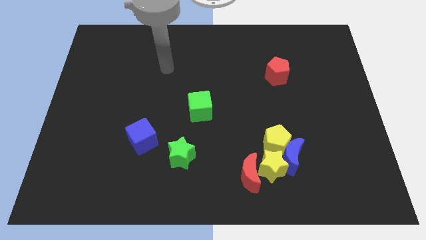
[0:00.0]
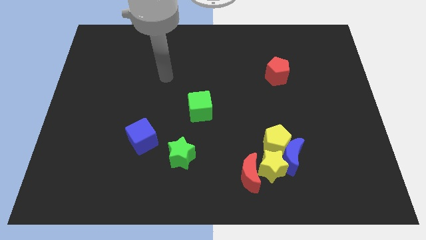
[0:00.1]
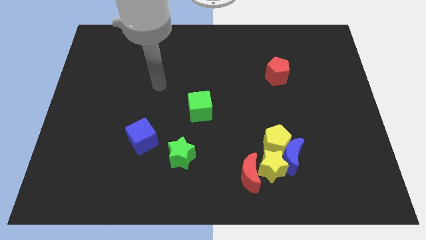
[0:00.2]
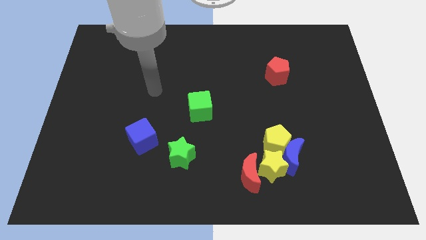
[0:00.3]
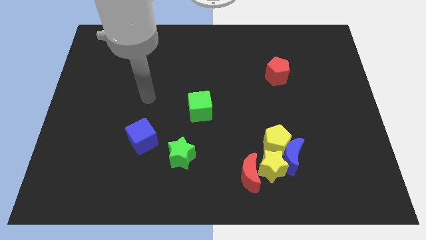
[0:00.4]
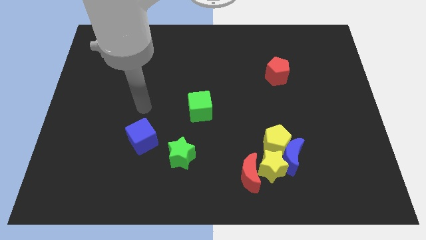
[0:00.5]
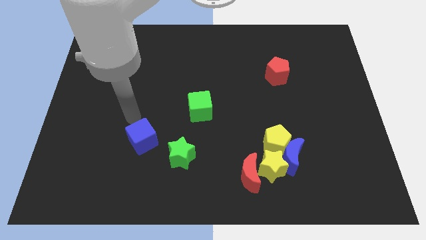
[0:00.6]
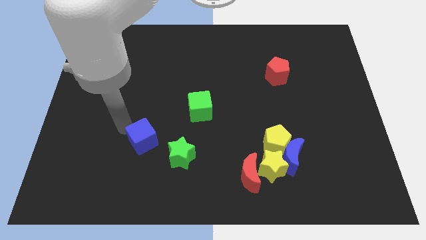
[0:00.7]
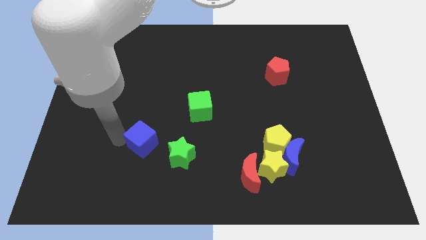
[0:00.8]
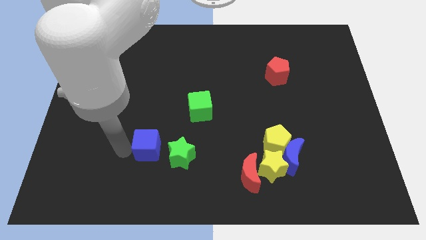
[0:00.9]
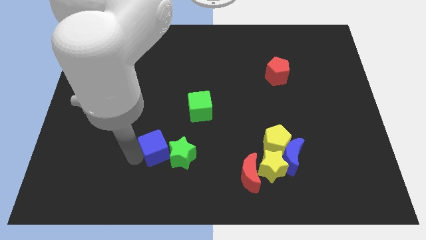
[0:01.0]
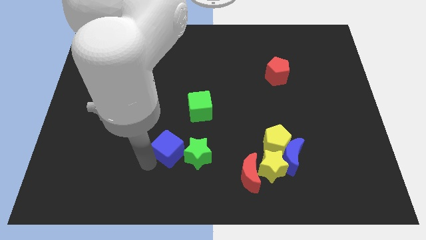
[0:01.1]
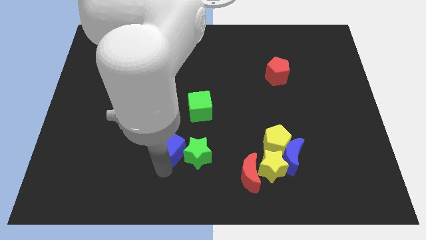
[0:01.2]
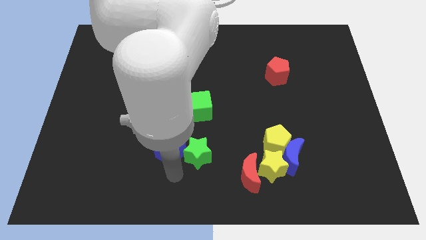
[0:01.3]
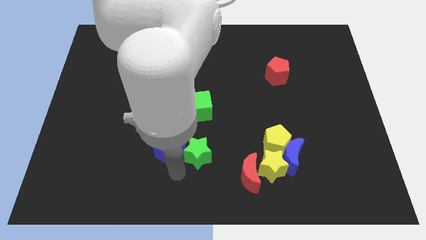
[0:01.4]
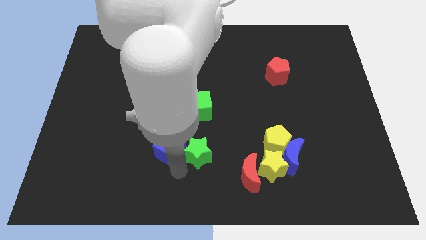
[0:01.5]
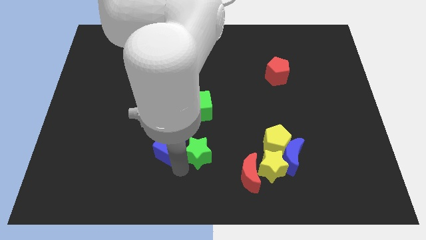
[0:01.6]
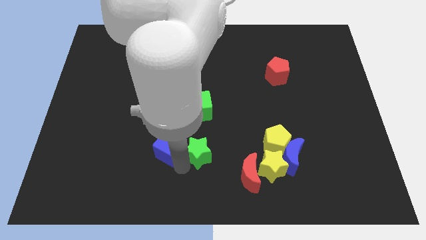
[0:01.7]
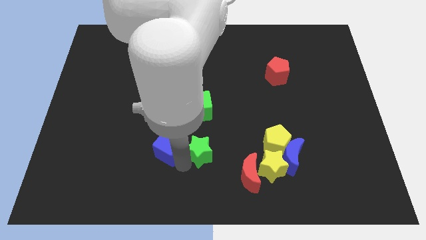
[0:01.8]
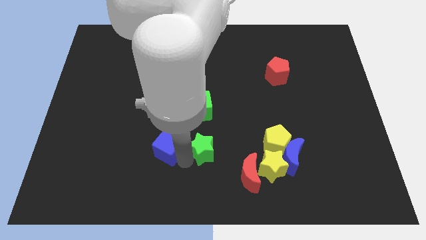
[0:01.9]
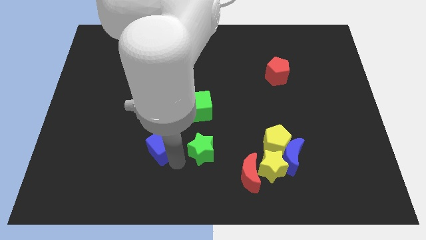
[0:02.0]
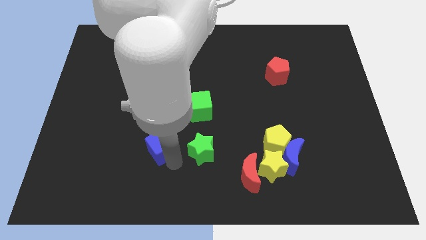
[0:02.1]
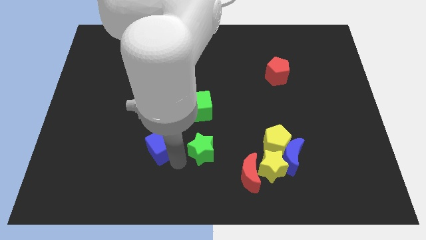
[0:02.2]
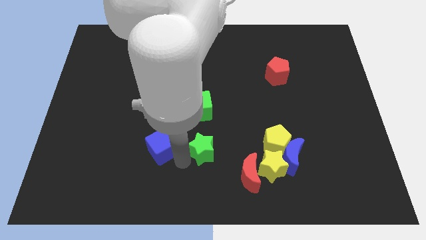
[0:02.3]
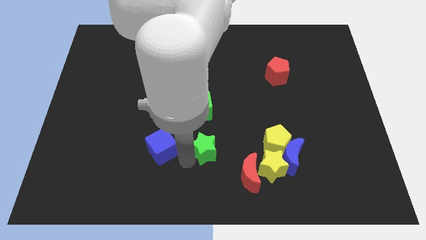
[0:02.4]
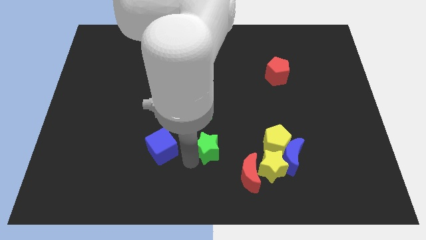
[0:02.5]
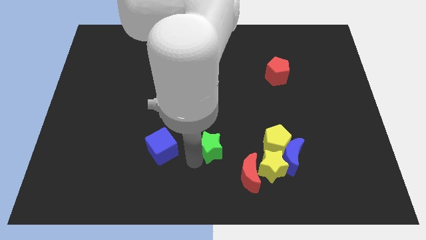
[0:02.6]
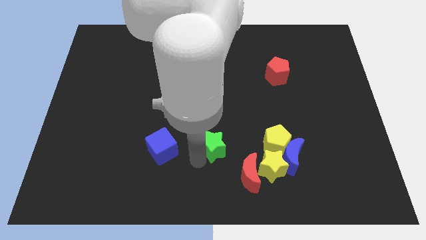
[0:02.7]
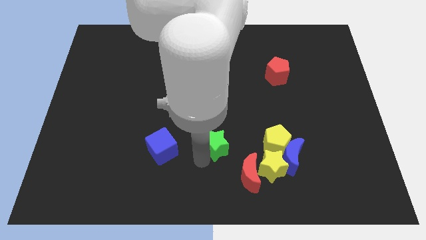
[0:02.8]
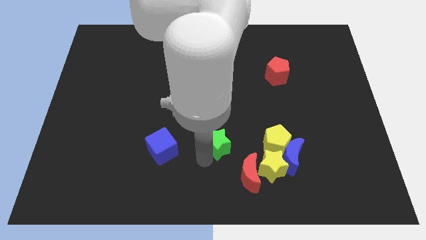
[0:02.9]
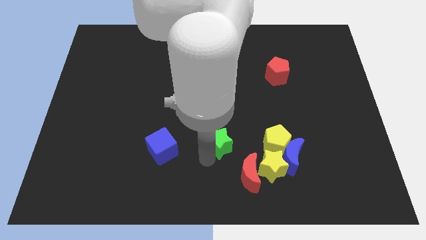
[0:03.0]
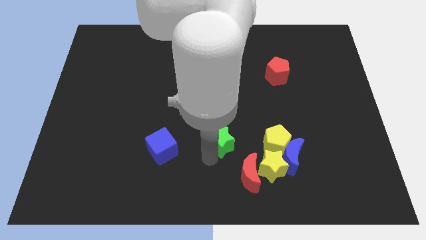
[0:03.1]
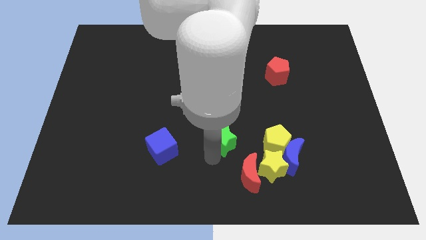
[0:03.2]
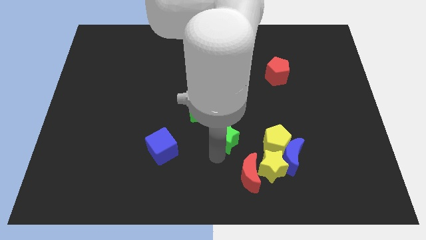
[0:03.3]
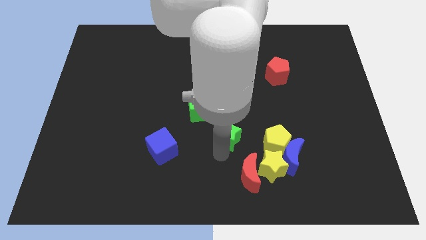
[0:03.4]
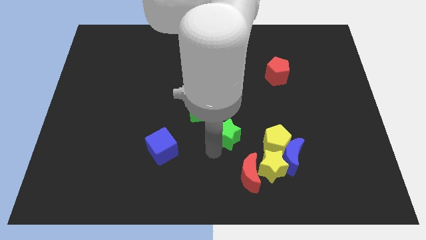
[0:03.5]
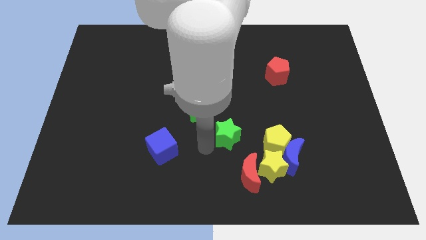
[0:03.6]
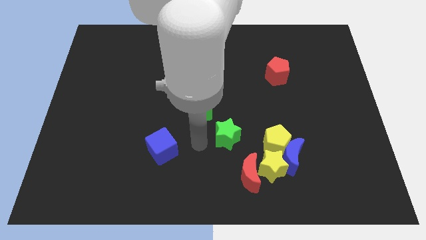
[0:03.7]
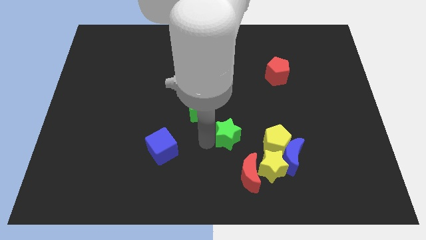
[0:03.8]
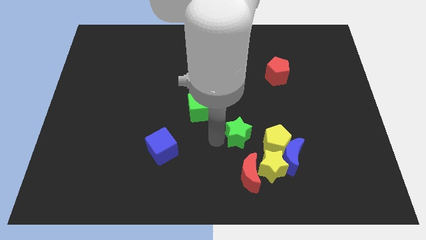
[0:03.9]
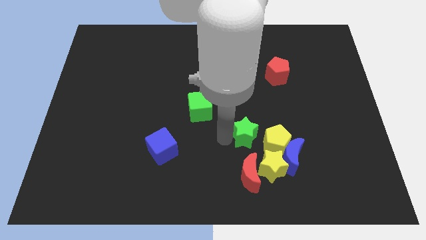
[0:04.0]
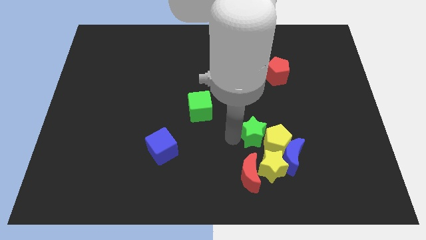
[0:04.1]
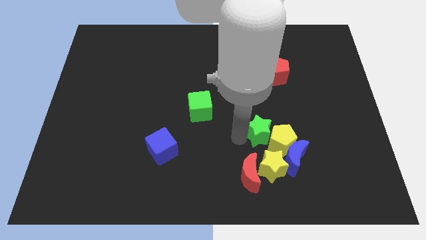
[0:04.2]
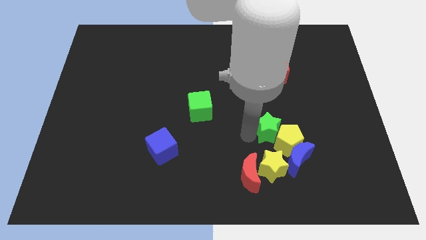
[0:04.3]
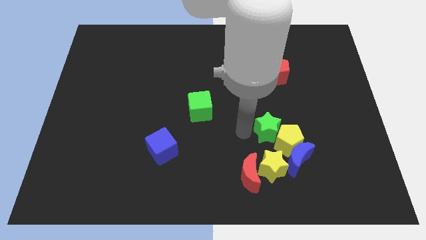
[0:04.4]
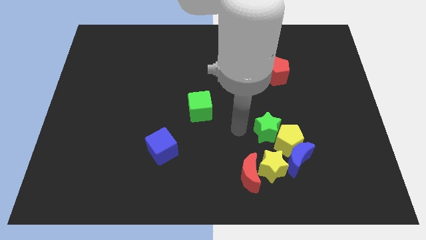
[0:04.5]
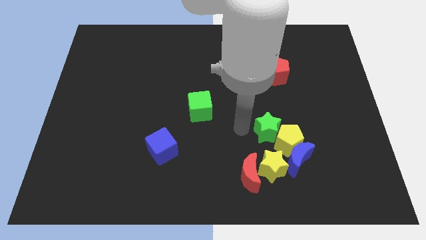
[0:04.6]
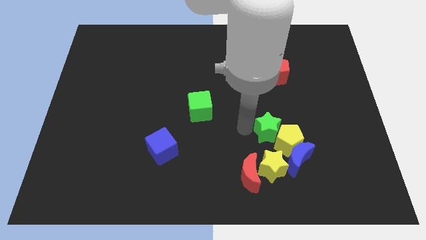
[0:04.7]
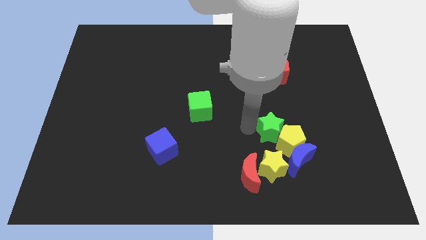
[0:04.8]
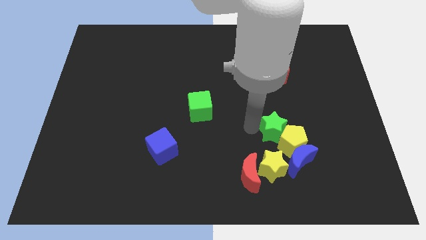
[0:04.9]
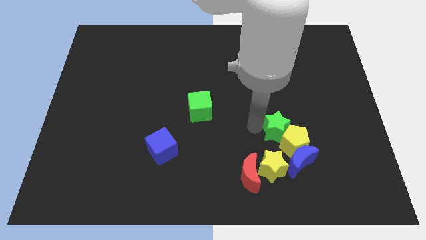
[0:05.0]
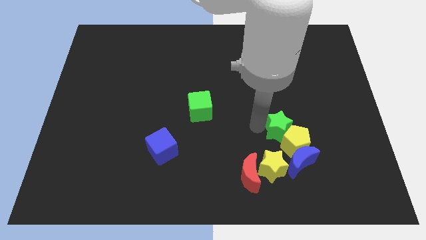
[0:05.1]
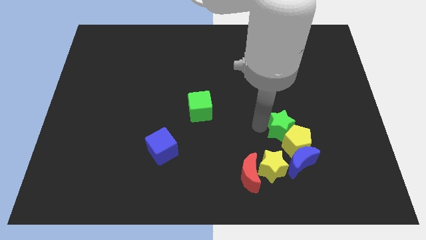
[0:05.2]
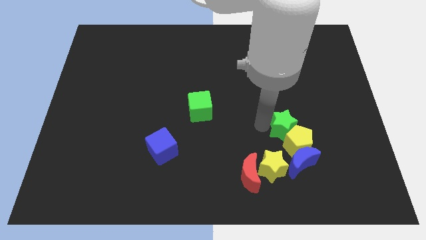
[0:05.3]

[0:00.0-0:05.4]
push the green star to the right

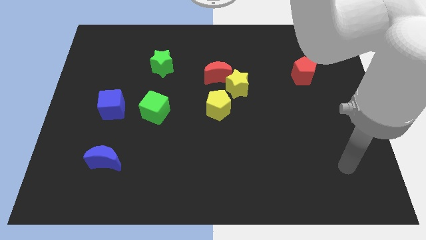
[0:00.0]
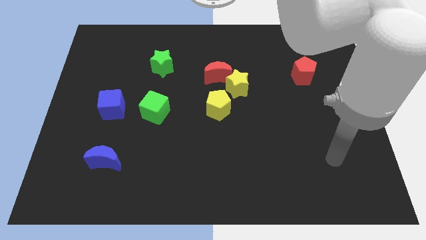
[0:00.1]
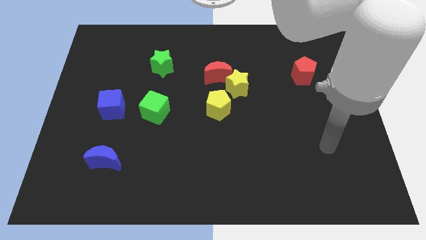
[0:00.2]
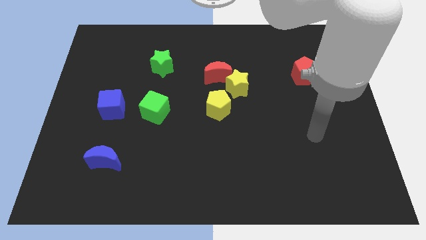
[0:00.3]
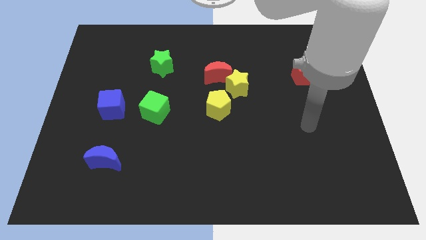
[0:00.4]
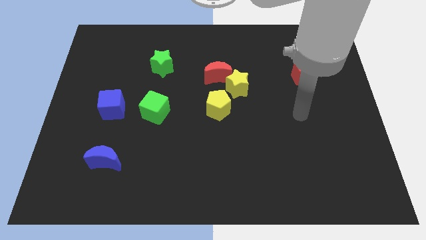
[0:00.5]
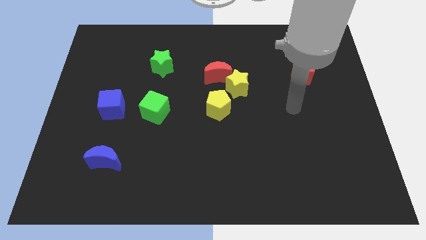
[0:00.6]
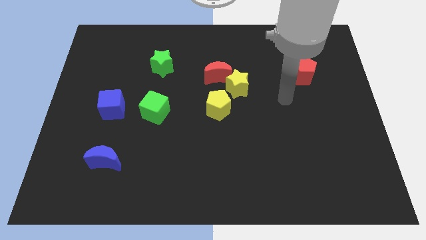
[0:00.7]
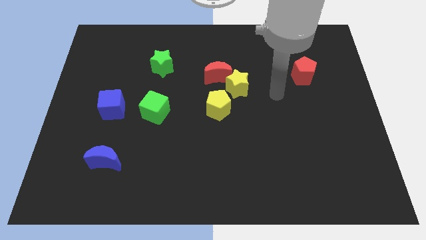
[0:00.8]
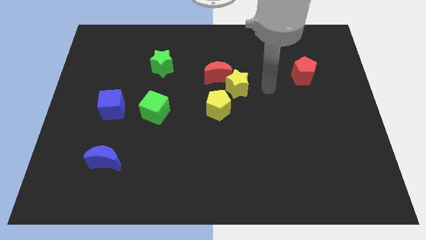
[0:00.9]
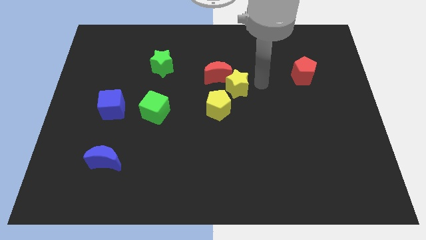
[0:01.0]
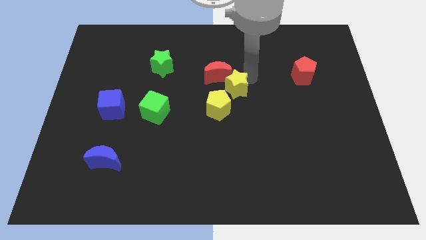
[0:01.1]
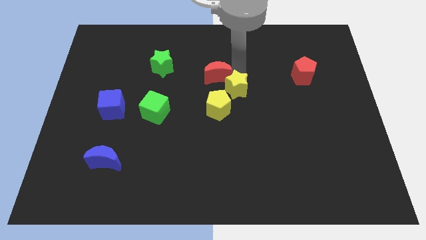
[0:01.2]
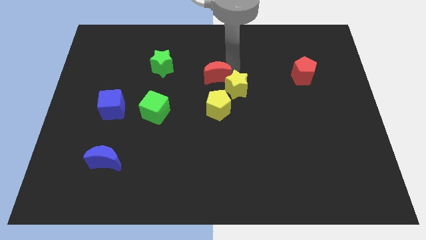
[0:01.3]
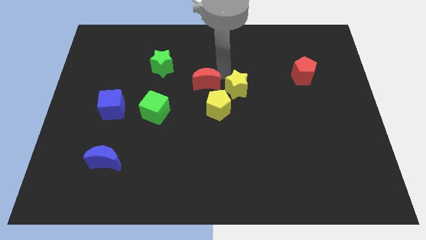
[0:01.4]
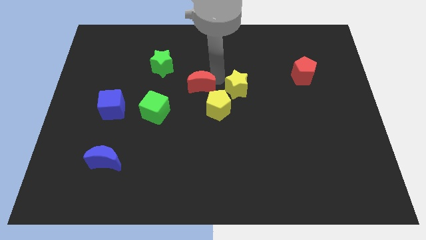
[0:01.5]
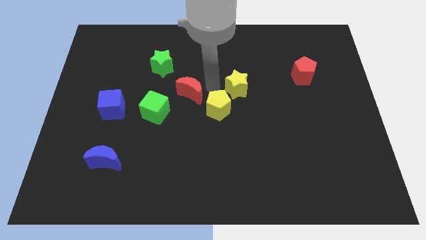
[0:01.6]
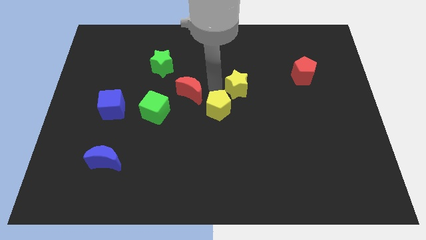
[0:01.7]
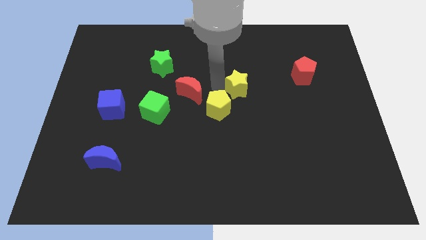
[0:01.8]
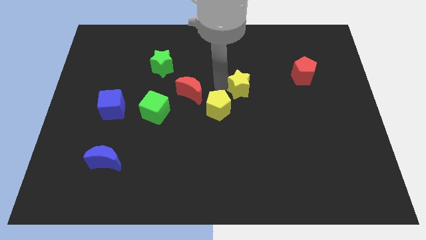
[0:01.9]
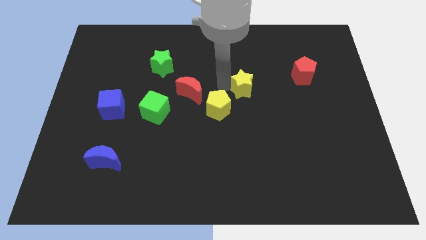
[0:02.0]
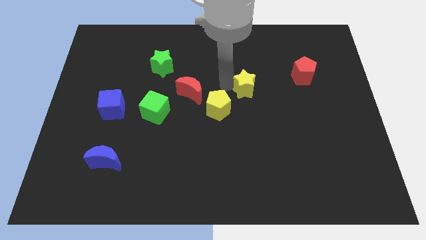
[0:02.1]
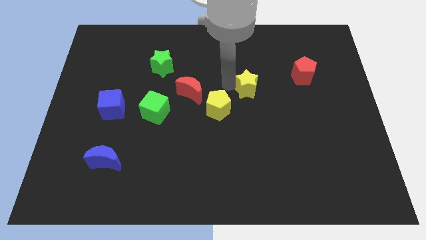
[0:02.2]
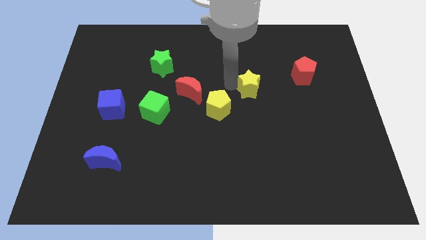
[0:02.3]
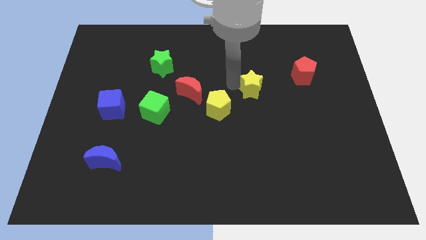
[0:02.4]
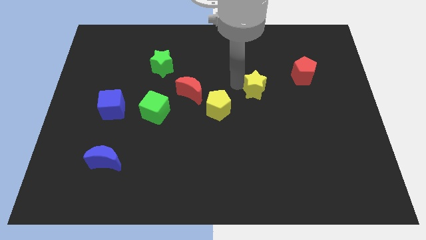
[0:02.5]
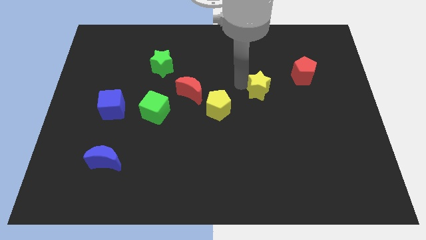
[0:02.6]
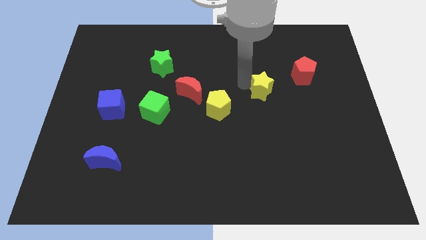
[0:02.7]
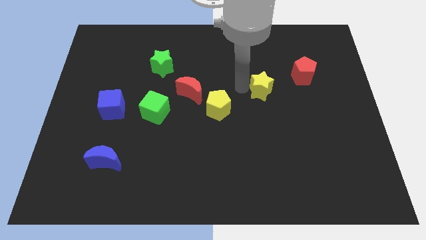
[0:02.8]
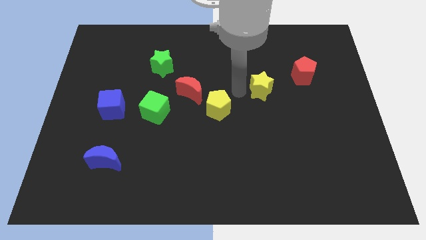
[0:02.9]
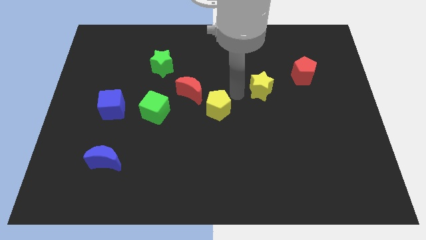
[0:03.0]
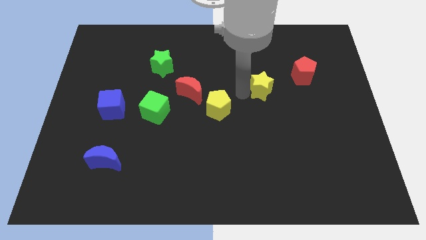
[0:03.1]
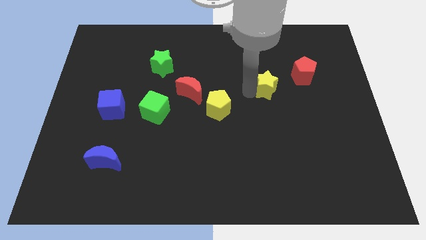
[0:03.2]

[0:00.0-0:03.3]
push the yellow star somewhat right
